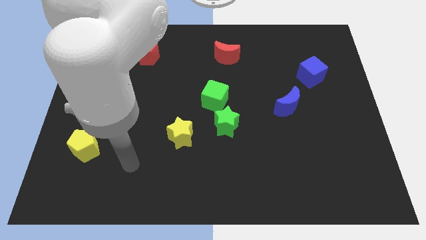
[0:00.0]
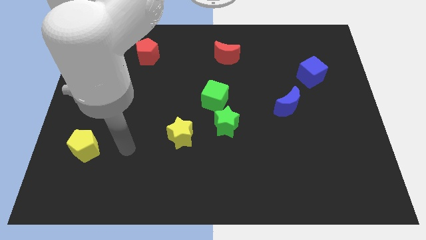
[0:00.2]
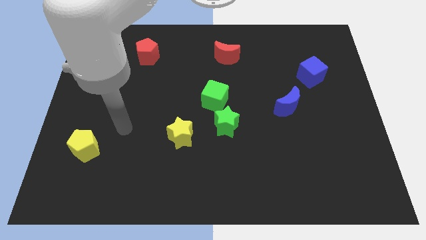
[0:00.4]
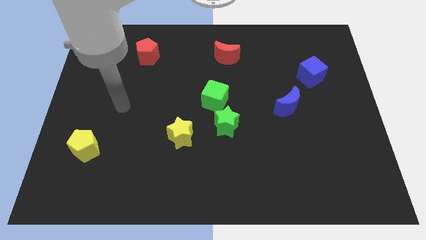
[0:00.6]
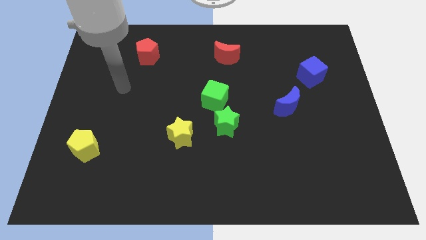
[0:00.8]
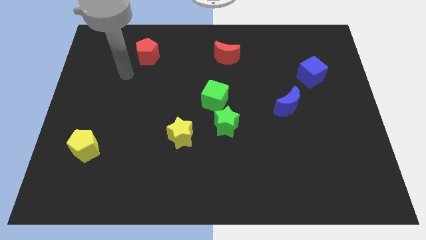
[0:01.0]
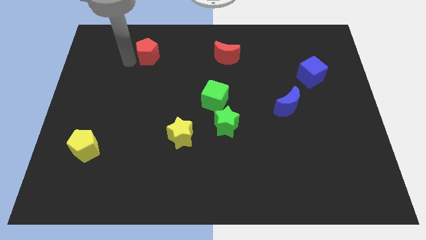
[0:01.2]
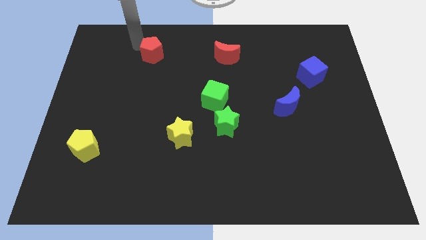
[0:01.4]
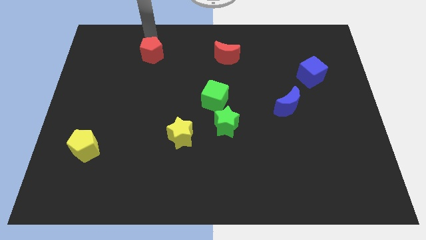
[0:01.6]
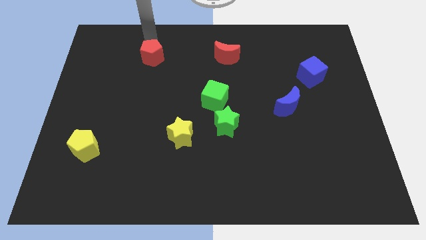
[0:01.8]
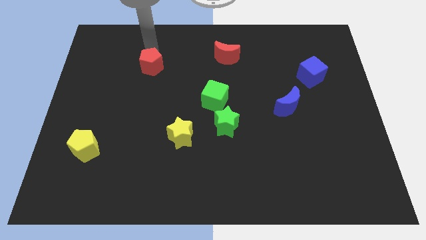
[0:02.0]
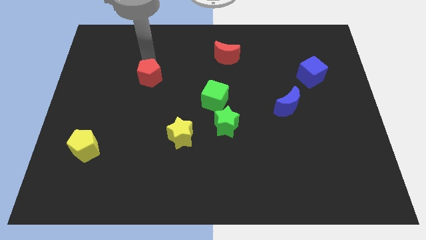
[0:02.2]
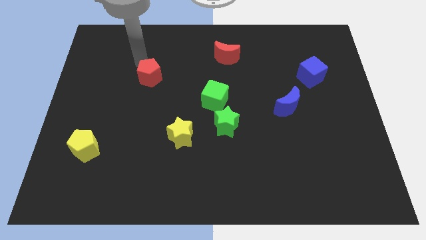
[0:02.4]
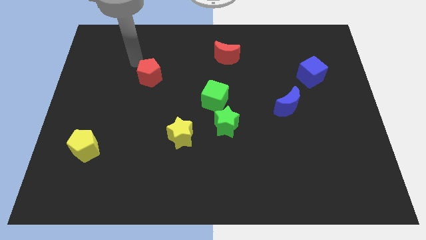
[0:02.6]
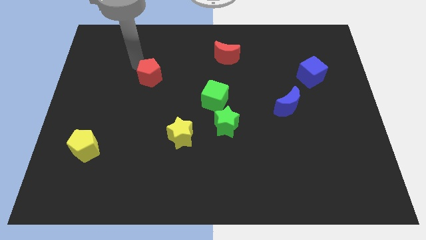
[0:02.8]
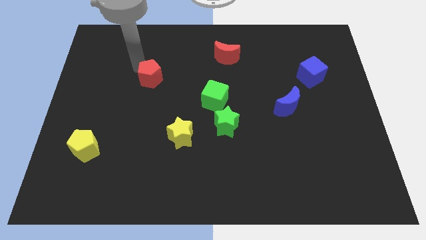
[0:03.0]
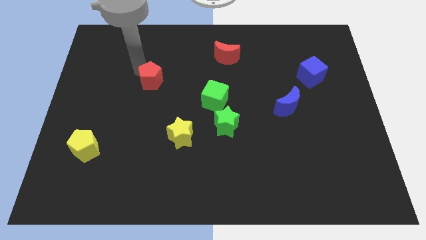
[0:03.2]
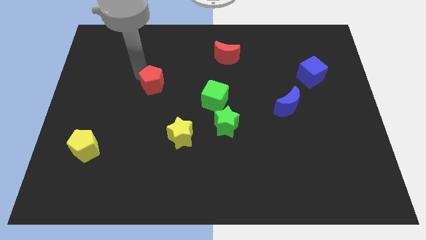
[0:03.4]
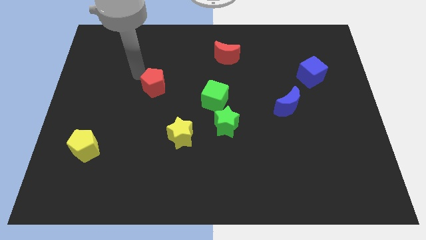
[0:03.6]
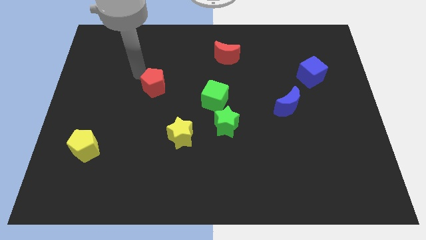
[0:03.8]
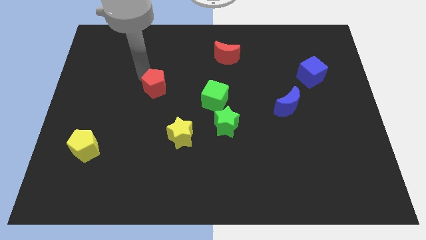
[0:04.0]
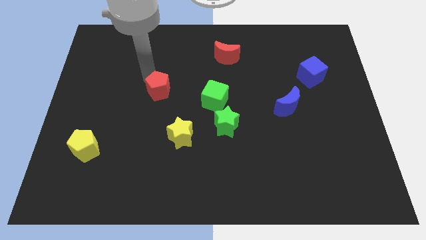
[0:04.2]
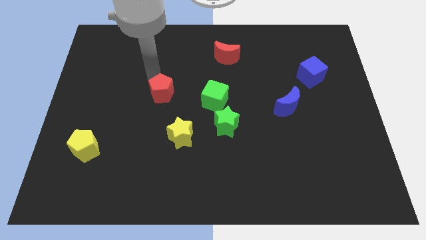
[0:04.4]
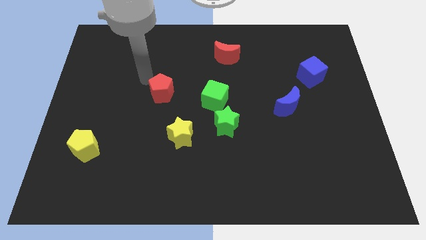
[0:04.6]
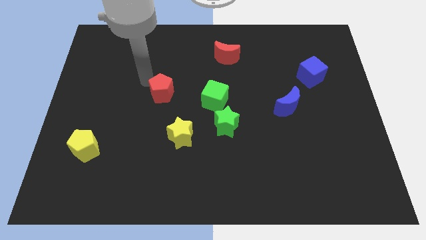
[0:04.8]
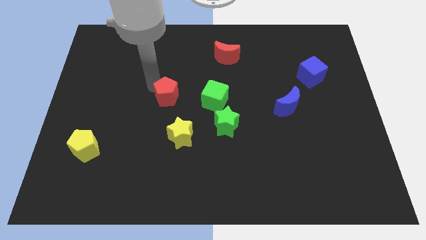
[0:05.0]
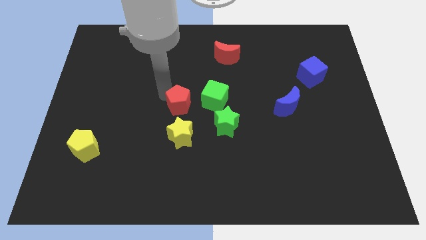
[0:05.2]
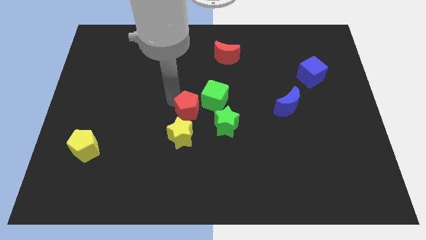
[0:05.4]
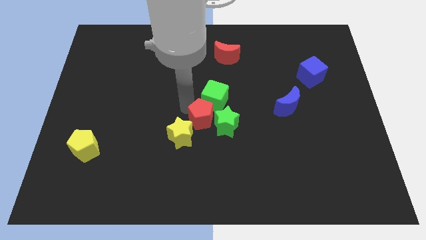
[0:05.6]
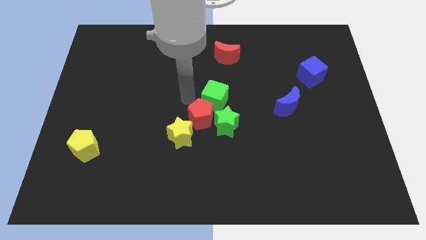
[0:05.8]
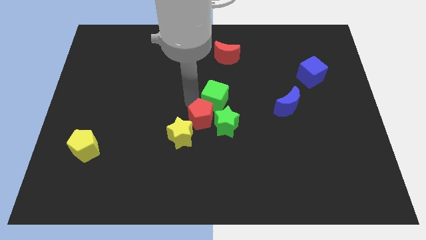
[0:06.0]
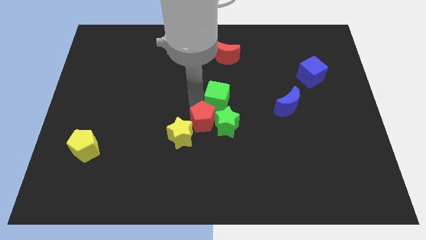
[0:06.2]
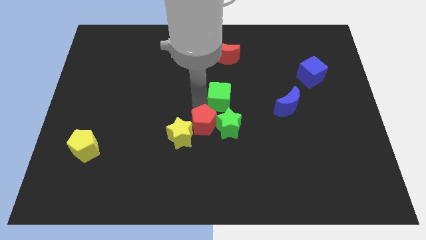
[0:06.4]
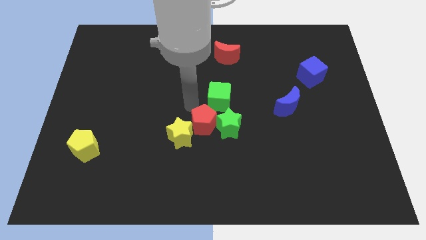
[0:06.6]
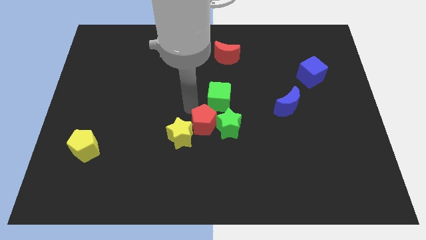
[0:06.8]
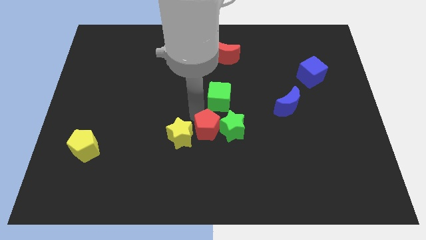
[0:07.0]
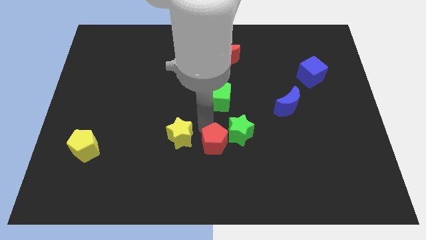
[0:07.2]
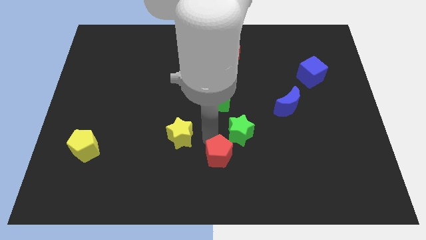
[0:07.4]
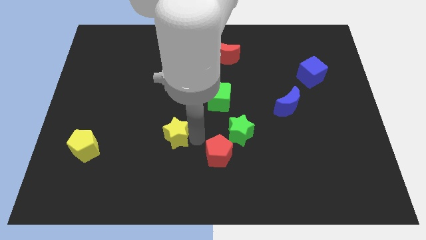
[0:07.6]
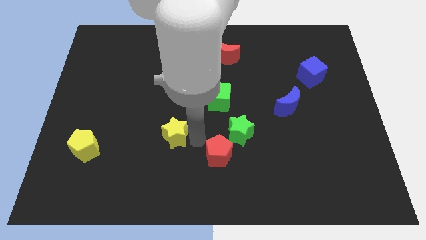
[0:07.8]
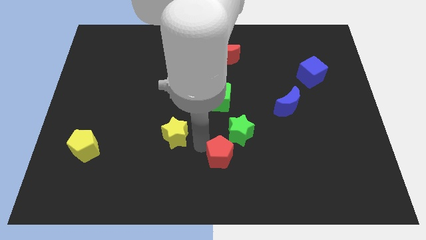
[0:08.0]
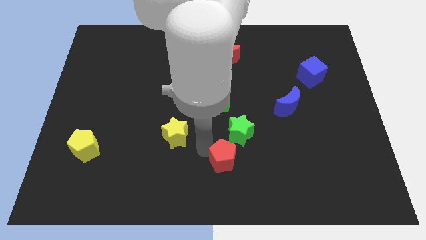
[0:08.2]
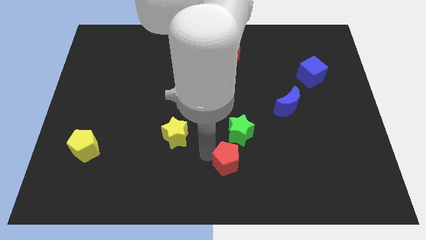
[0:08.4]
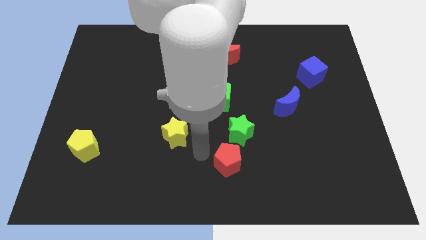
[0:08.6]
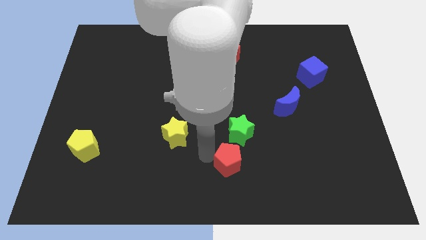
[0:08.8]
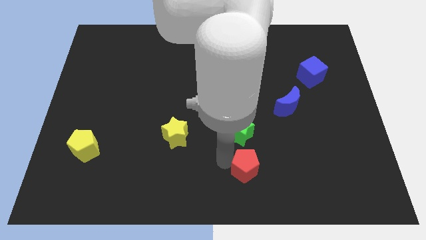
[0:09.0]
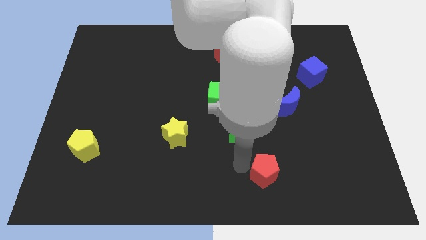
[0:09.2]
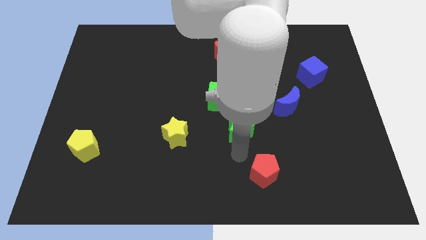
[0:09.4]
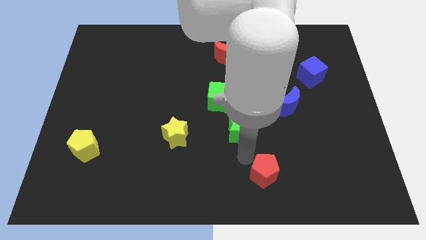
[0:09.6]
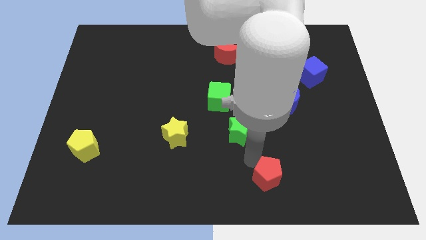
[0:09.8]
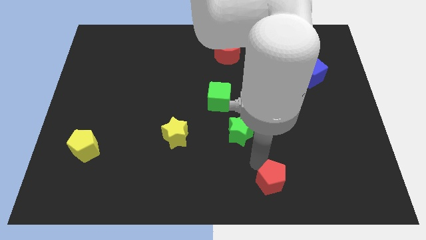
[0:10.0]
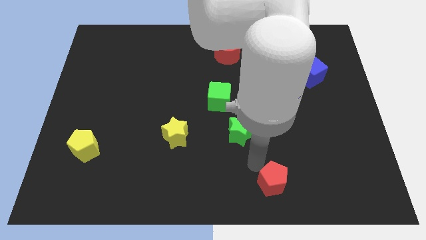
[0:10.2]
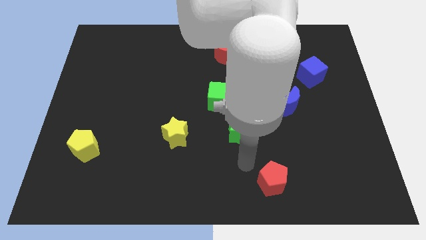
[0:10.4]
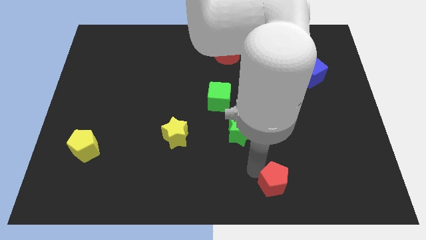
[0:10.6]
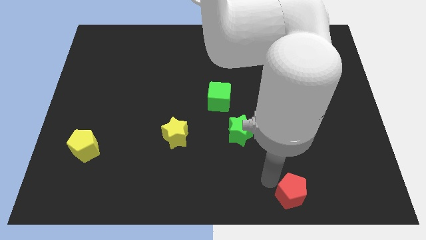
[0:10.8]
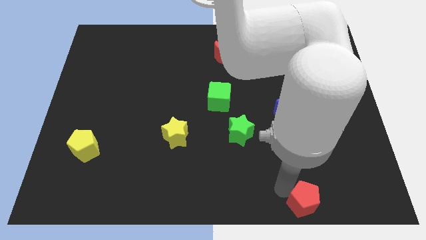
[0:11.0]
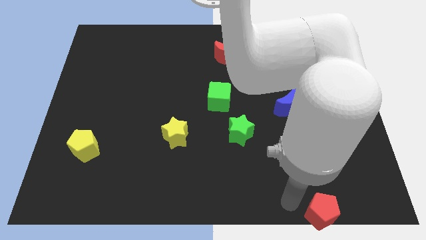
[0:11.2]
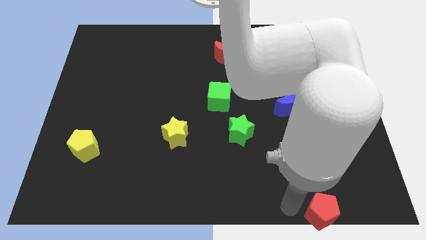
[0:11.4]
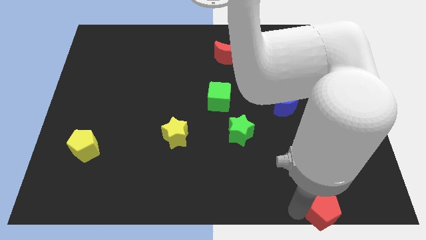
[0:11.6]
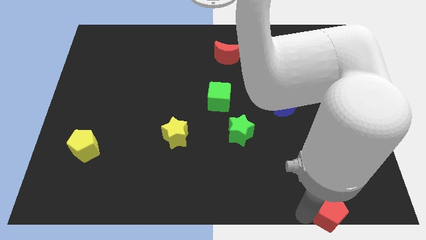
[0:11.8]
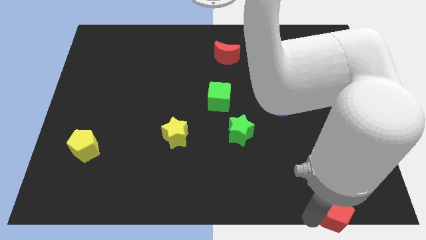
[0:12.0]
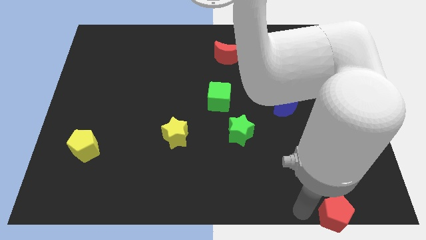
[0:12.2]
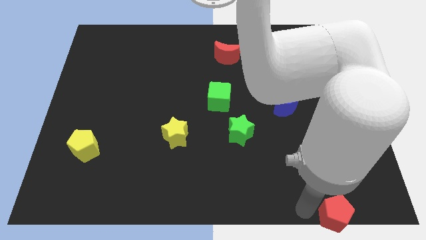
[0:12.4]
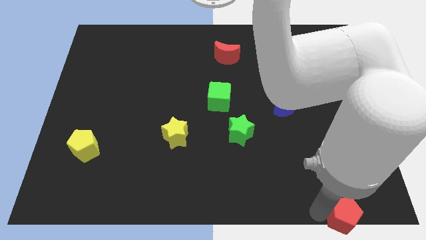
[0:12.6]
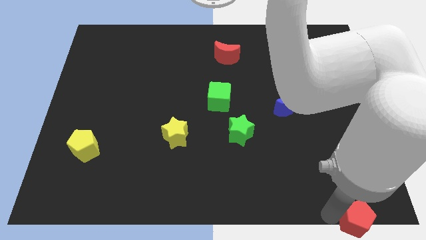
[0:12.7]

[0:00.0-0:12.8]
slide the red pentagon to the bottom right corner

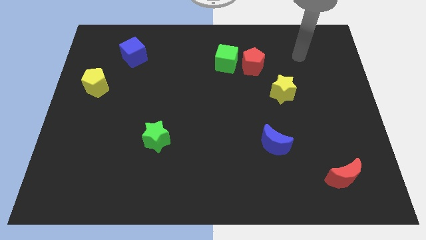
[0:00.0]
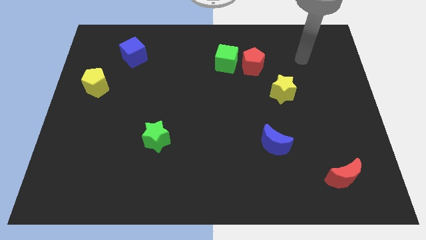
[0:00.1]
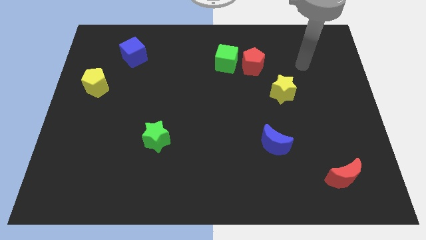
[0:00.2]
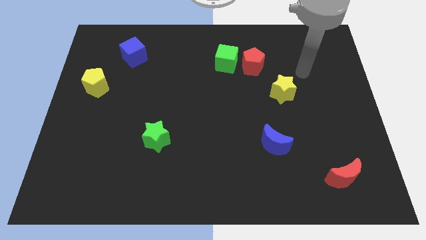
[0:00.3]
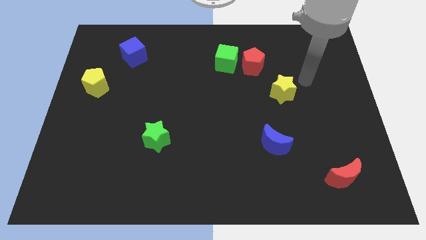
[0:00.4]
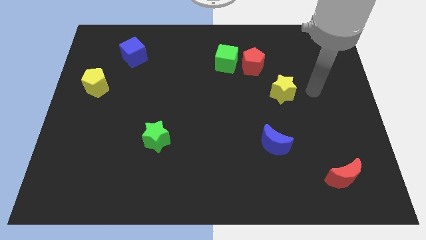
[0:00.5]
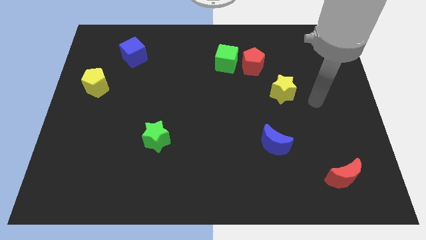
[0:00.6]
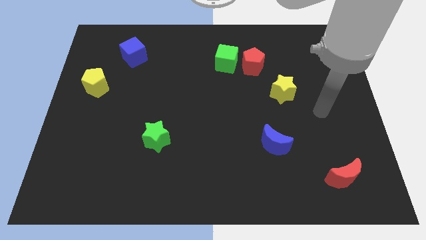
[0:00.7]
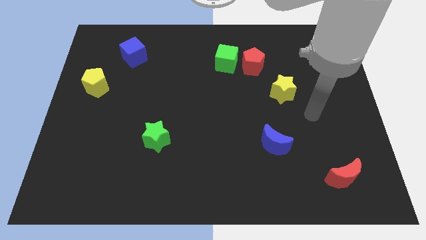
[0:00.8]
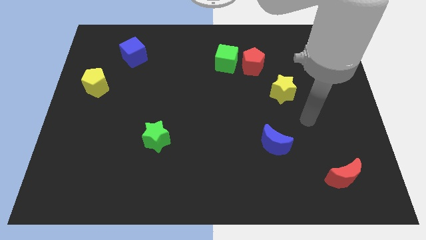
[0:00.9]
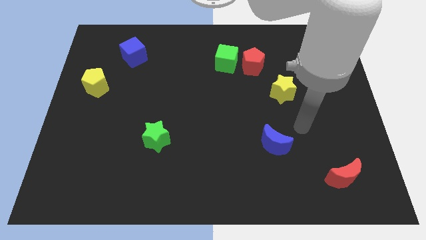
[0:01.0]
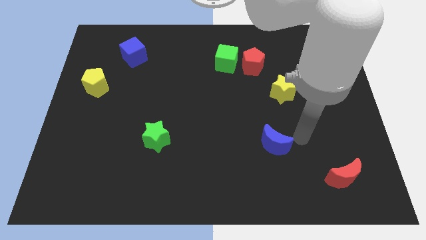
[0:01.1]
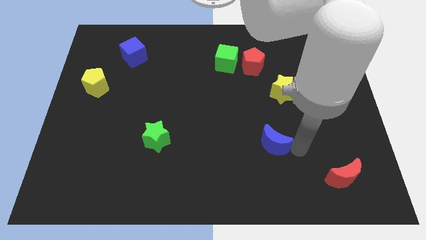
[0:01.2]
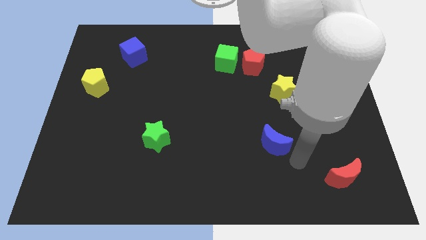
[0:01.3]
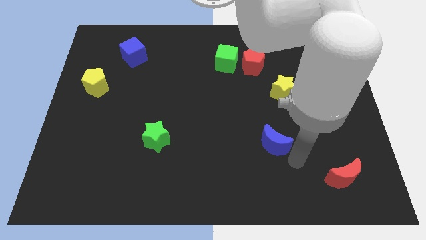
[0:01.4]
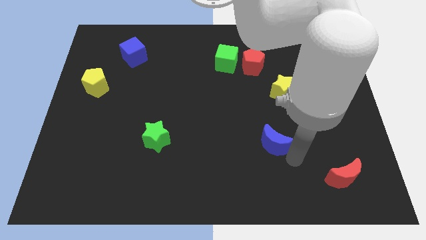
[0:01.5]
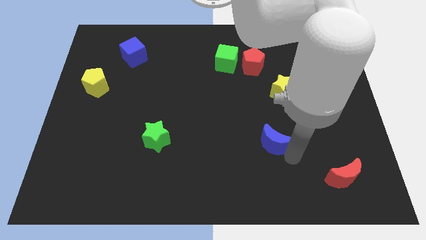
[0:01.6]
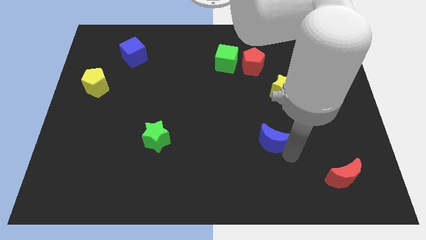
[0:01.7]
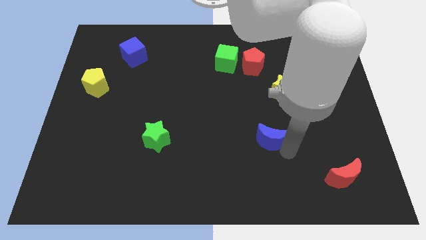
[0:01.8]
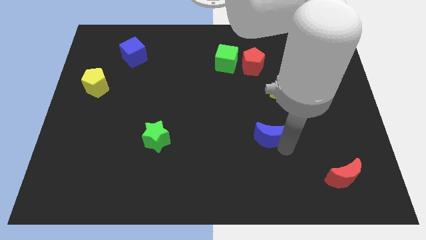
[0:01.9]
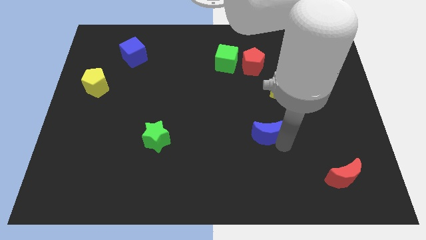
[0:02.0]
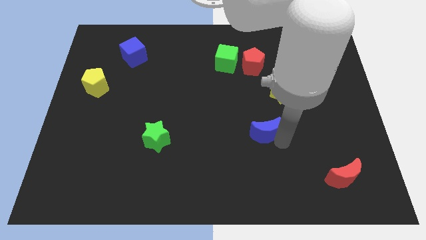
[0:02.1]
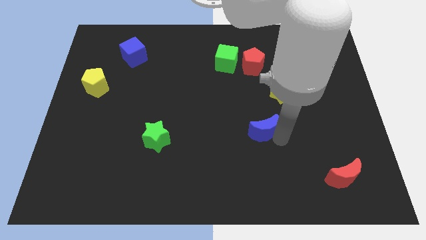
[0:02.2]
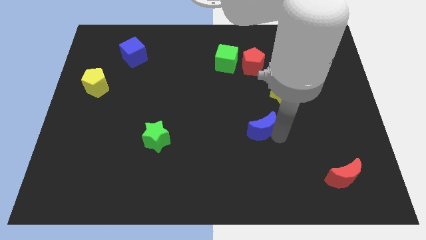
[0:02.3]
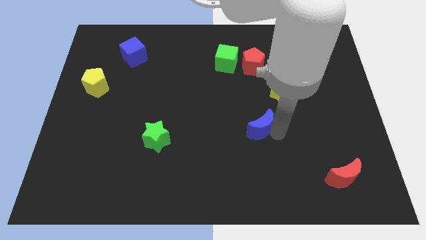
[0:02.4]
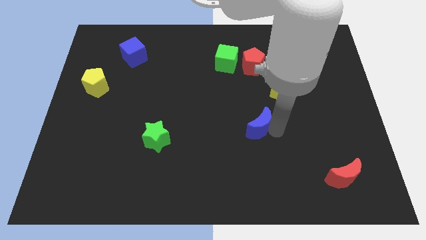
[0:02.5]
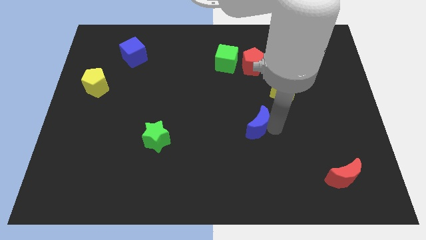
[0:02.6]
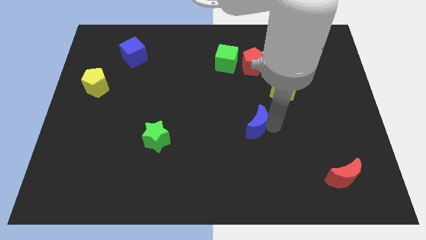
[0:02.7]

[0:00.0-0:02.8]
move the blue moon to the middle of the board
